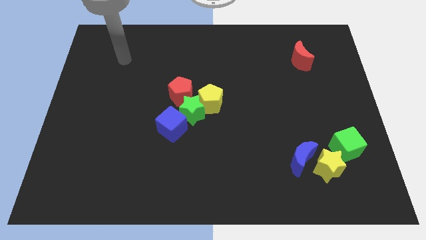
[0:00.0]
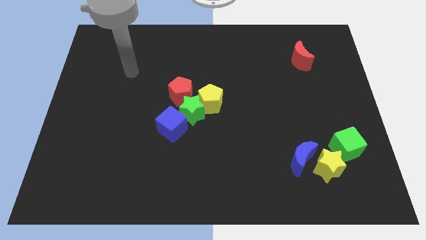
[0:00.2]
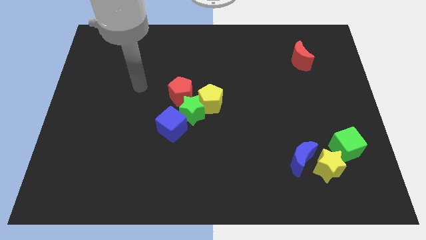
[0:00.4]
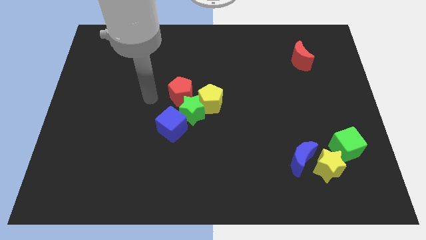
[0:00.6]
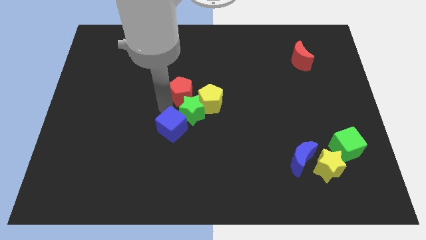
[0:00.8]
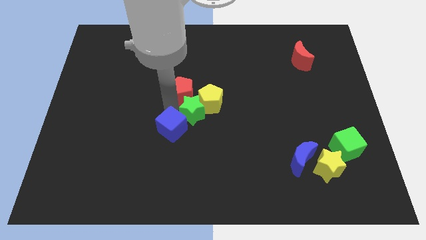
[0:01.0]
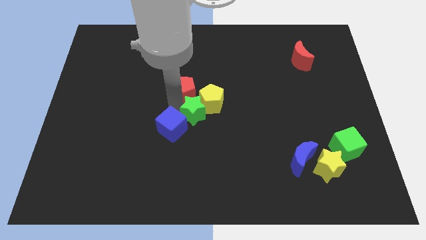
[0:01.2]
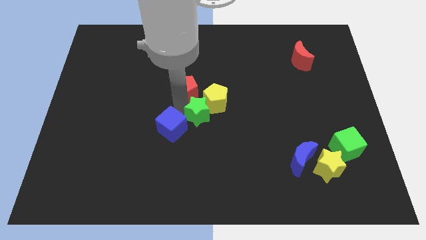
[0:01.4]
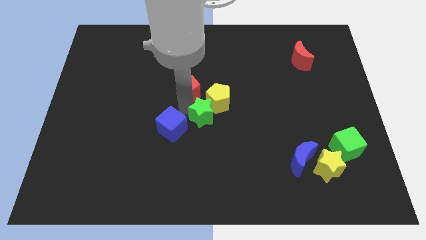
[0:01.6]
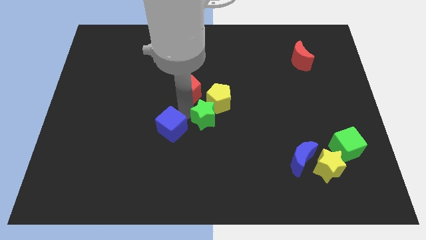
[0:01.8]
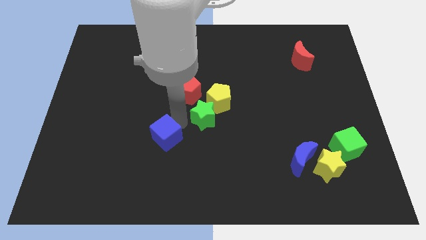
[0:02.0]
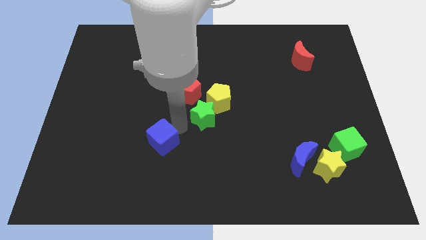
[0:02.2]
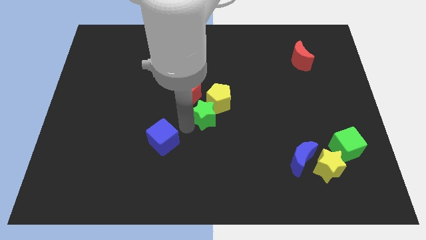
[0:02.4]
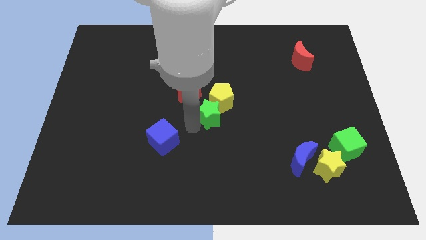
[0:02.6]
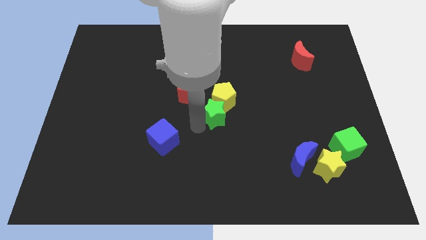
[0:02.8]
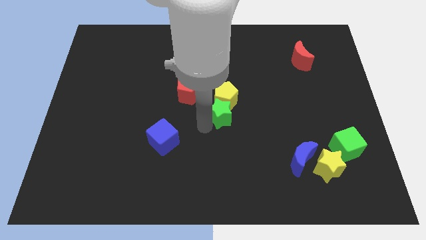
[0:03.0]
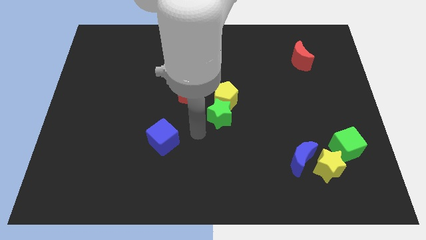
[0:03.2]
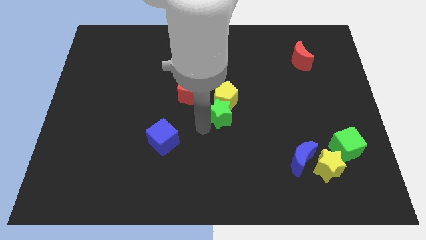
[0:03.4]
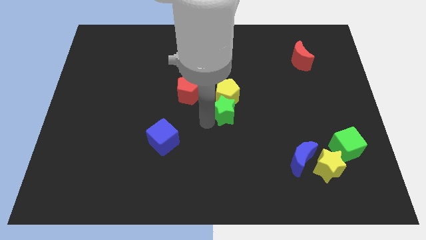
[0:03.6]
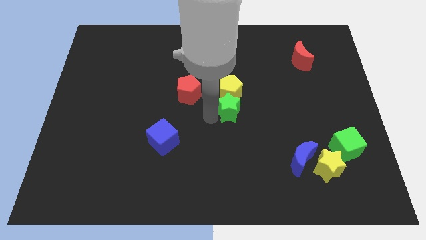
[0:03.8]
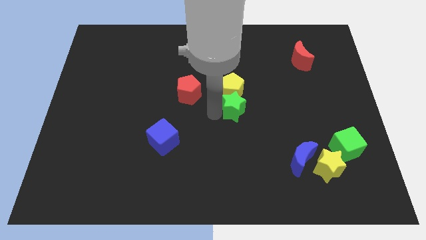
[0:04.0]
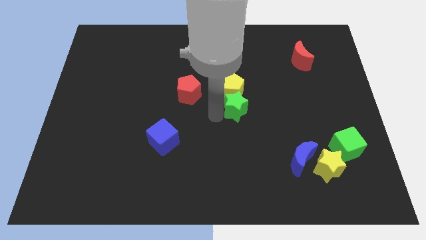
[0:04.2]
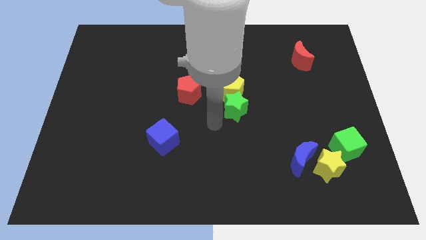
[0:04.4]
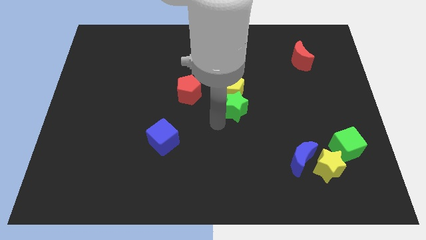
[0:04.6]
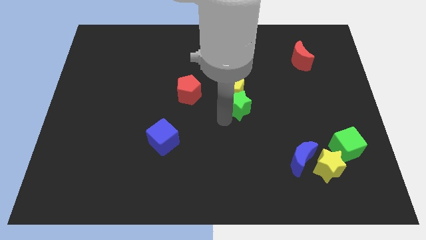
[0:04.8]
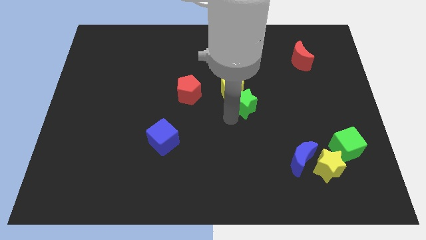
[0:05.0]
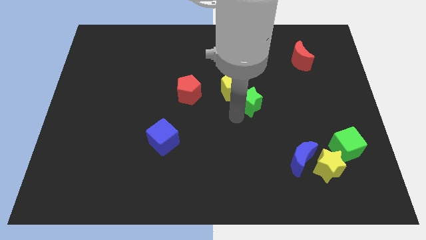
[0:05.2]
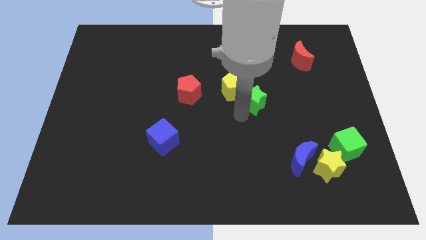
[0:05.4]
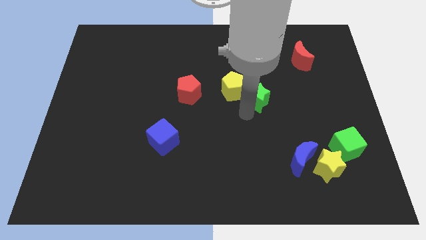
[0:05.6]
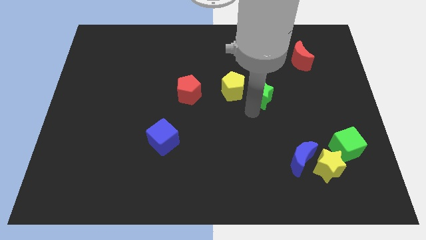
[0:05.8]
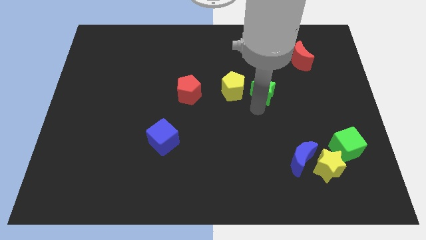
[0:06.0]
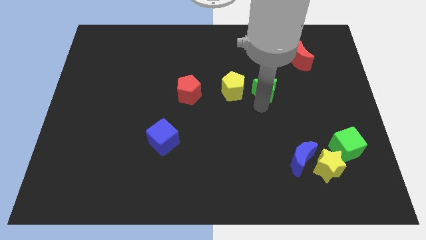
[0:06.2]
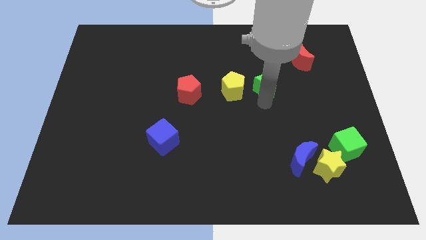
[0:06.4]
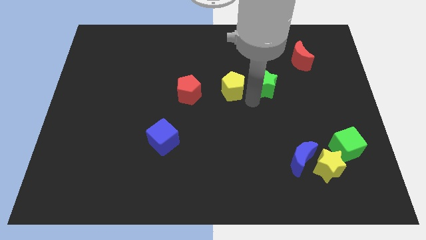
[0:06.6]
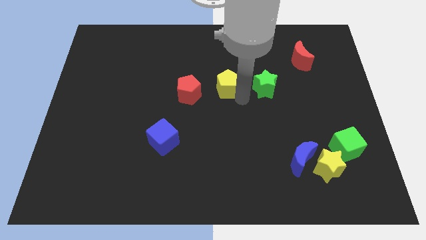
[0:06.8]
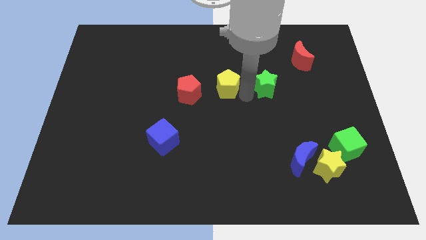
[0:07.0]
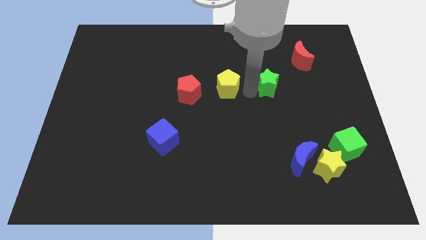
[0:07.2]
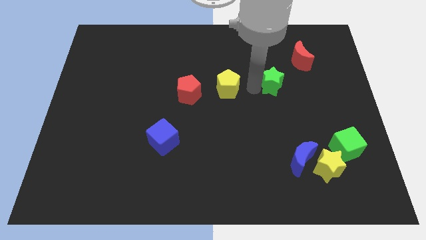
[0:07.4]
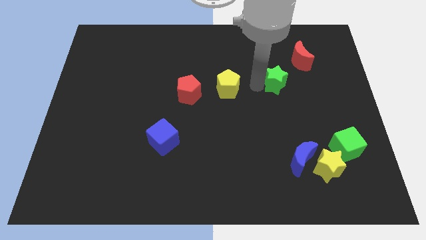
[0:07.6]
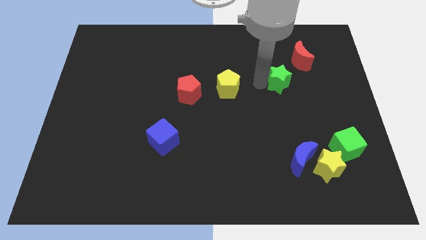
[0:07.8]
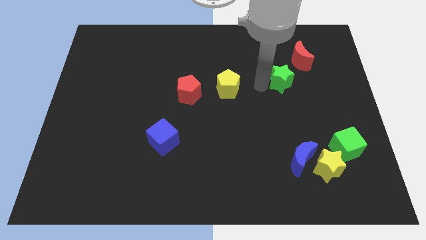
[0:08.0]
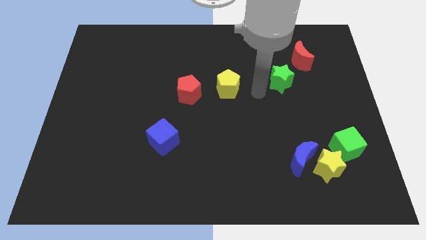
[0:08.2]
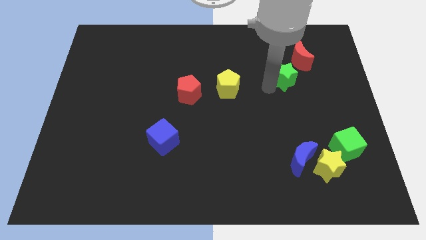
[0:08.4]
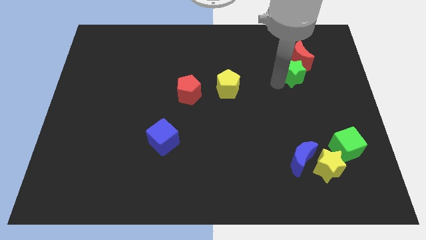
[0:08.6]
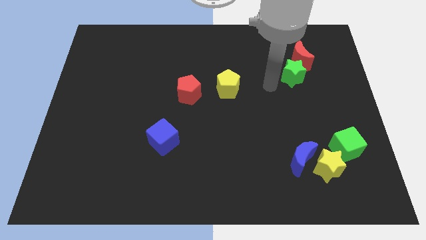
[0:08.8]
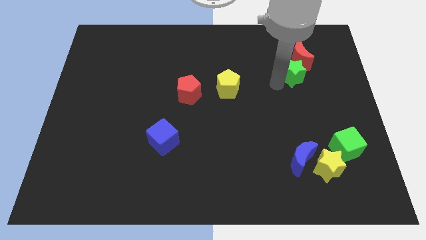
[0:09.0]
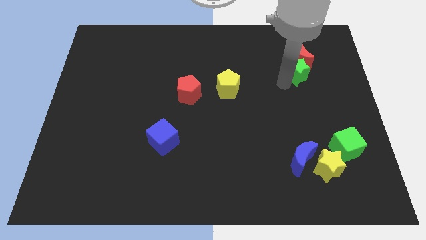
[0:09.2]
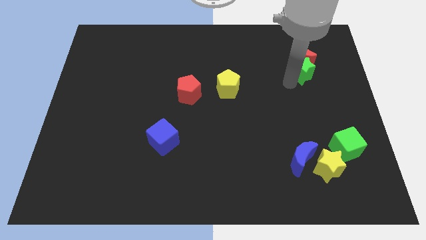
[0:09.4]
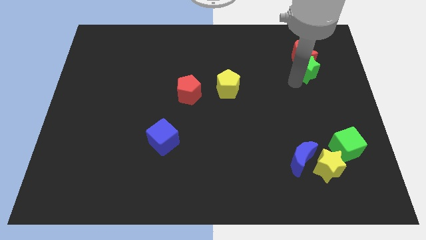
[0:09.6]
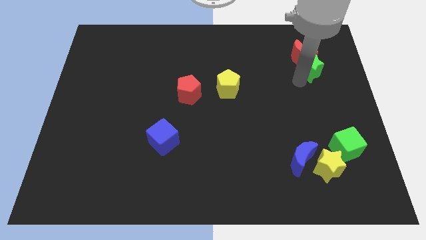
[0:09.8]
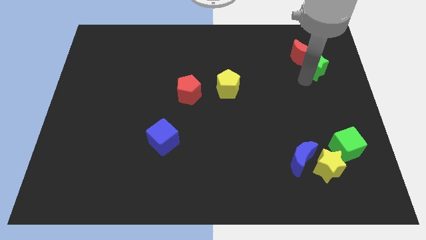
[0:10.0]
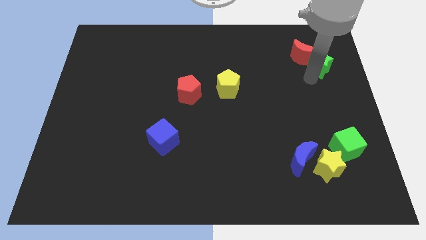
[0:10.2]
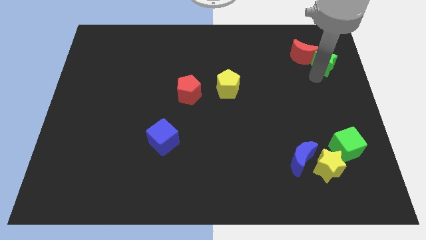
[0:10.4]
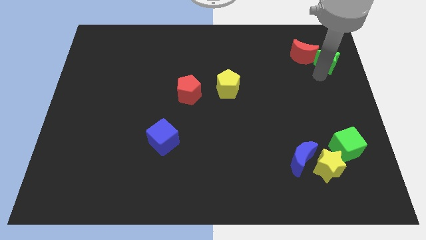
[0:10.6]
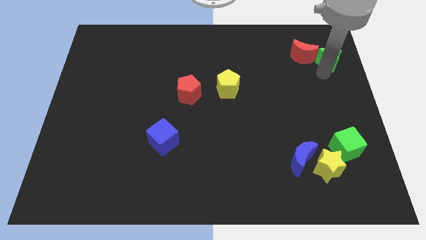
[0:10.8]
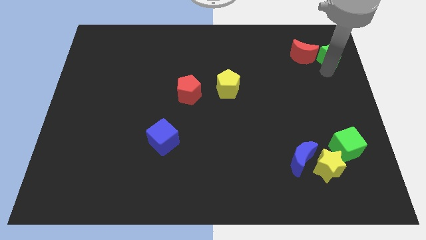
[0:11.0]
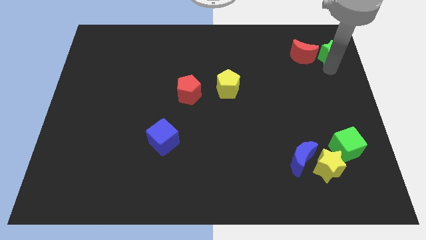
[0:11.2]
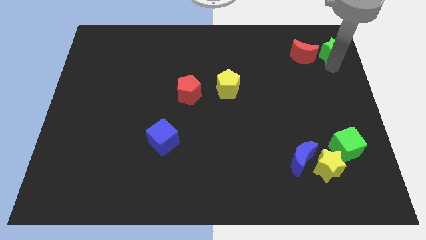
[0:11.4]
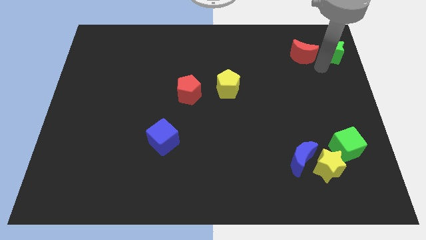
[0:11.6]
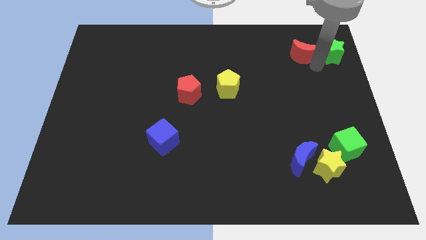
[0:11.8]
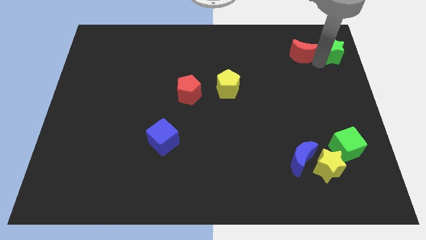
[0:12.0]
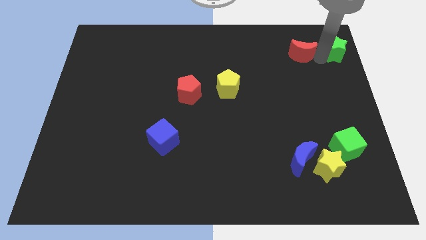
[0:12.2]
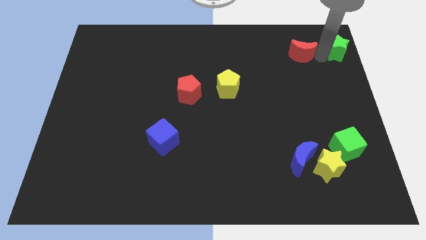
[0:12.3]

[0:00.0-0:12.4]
put the green star to the upper right corner

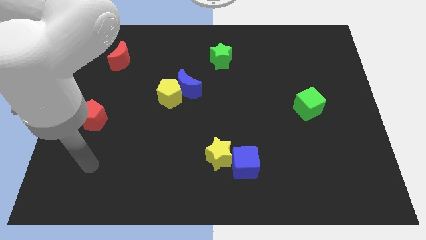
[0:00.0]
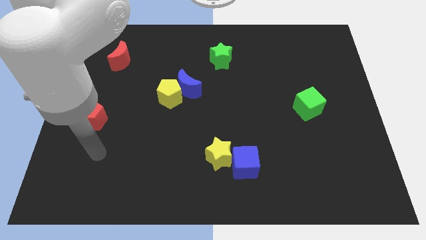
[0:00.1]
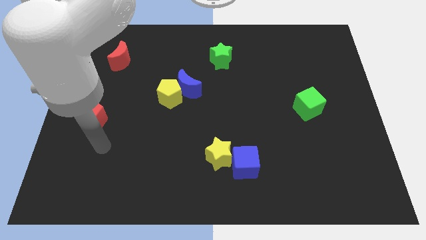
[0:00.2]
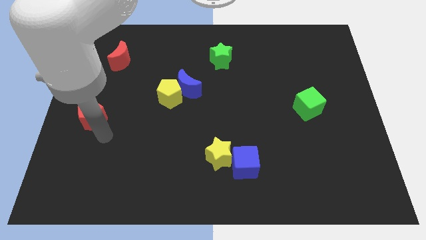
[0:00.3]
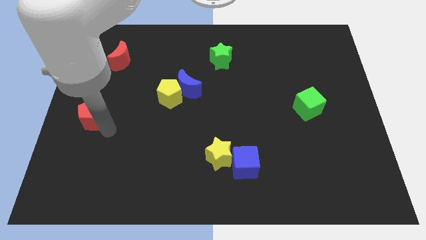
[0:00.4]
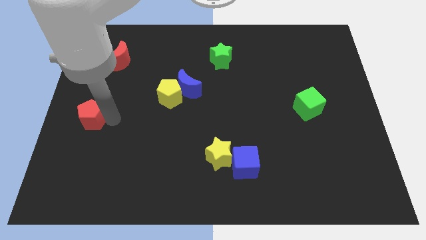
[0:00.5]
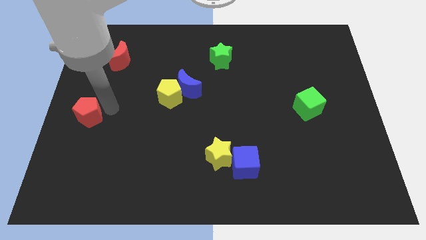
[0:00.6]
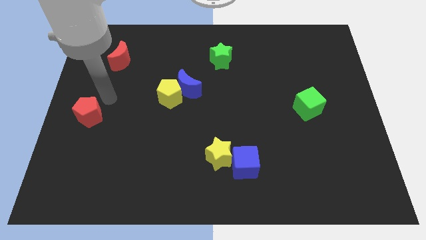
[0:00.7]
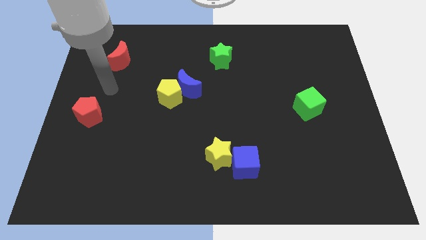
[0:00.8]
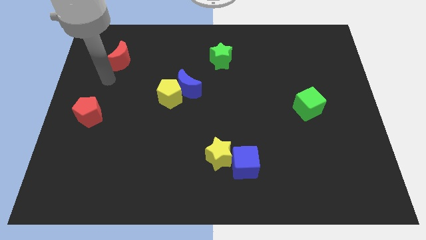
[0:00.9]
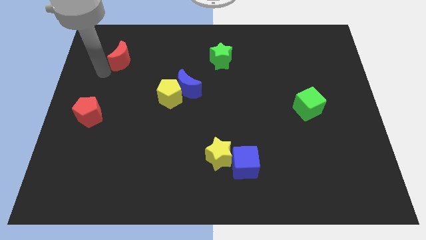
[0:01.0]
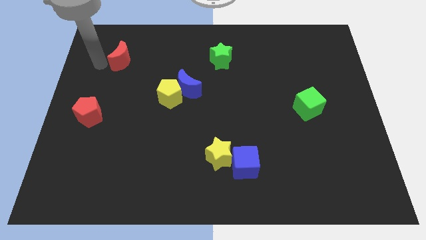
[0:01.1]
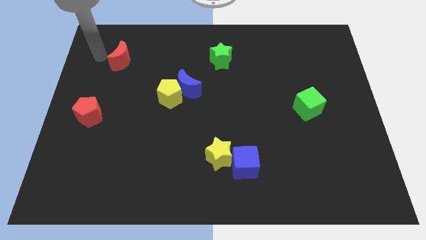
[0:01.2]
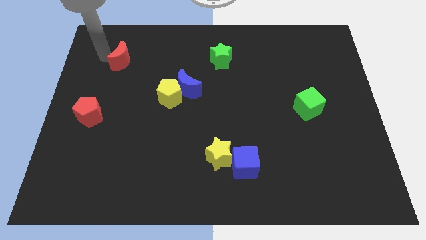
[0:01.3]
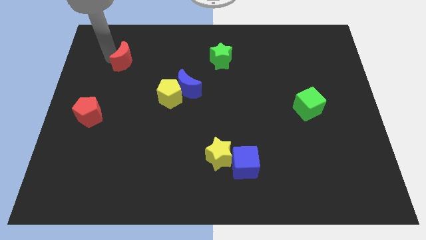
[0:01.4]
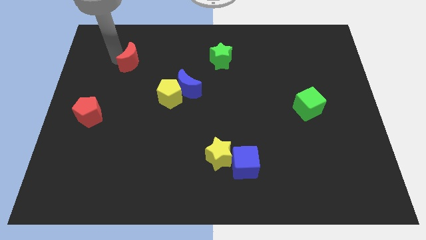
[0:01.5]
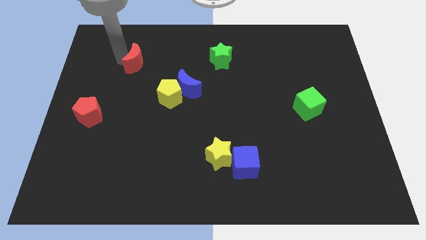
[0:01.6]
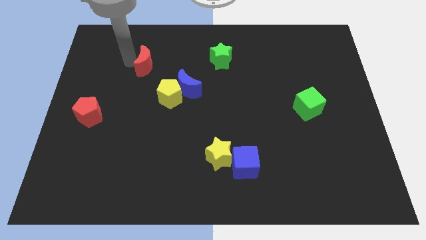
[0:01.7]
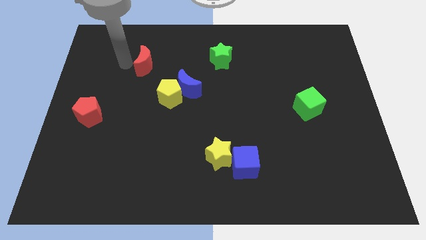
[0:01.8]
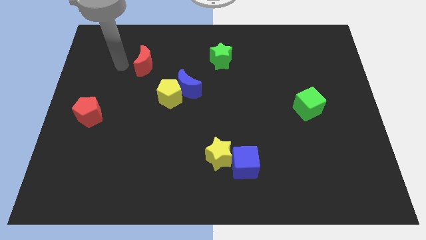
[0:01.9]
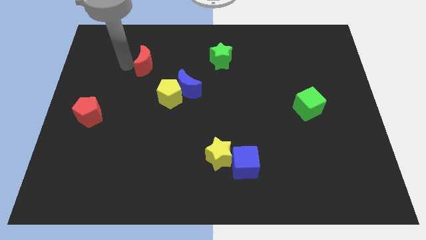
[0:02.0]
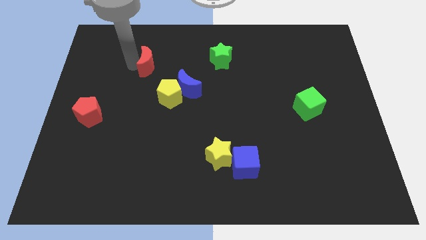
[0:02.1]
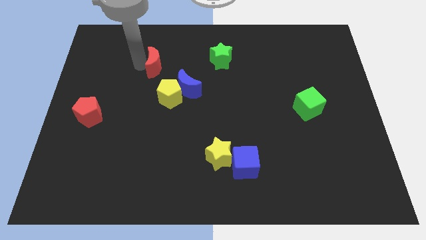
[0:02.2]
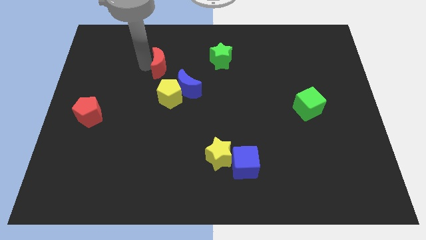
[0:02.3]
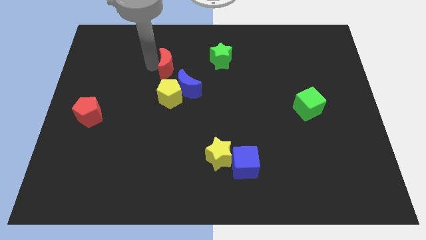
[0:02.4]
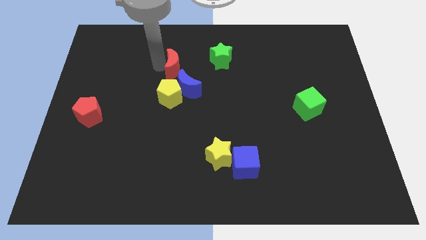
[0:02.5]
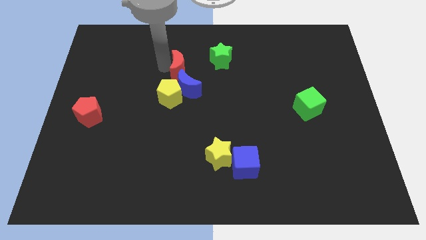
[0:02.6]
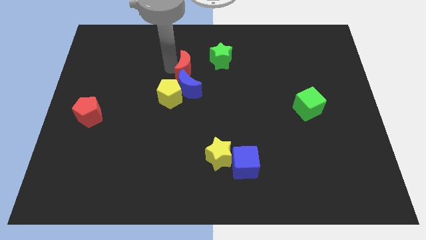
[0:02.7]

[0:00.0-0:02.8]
push the red moon to the middle
